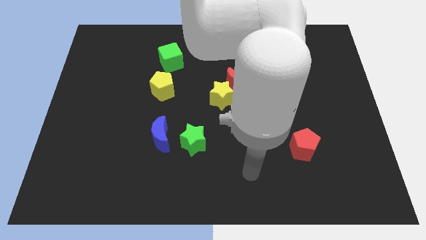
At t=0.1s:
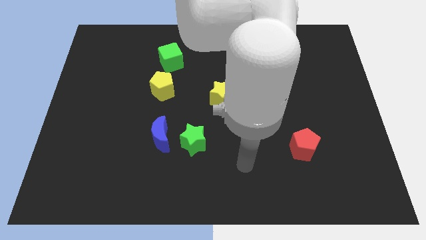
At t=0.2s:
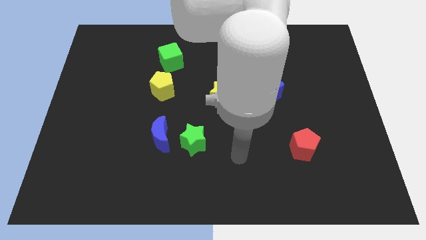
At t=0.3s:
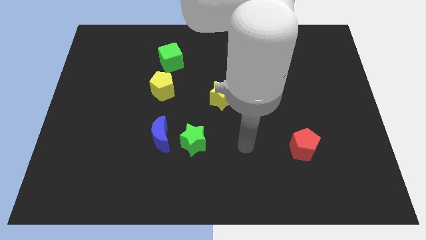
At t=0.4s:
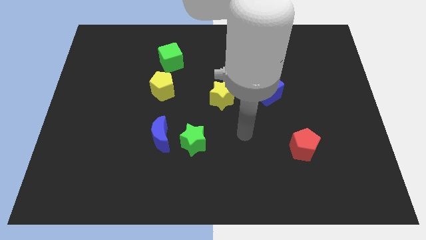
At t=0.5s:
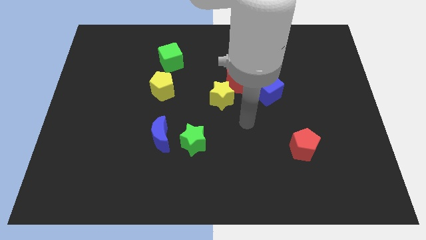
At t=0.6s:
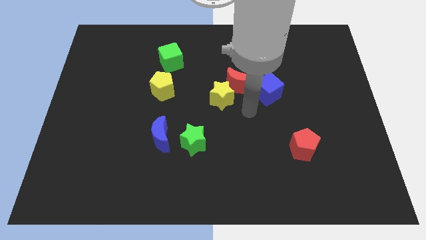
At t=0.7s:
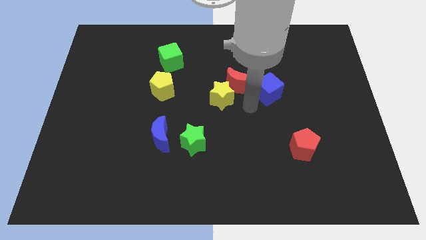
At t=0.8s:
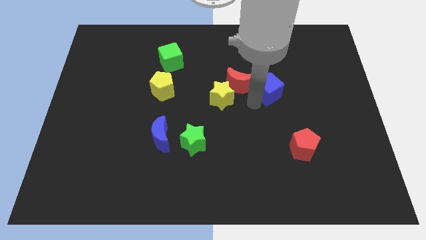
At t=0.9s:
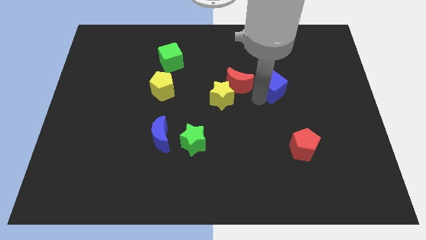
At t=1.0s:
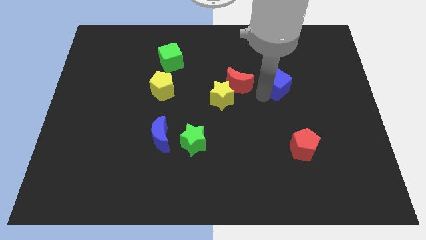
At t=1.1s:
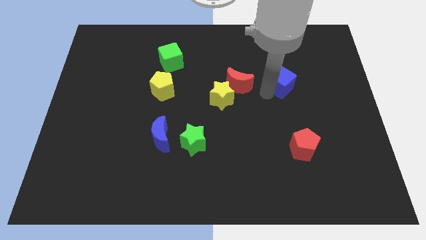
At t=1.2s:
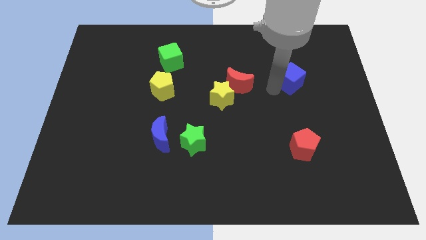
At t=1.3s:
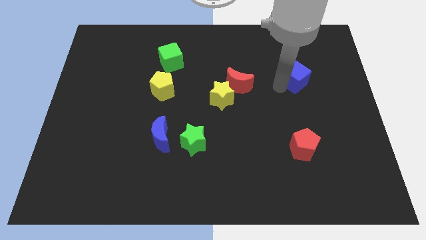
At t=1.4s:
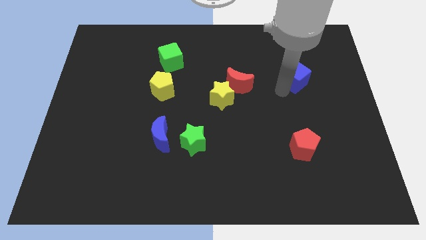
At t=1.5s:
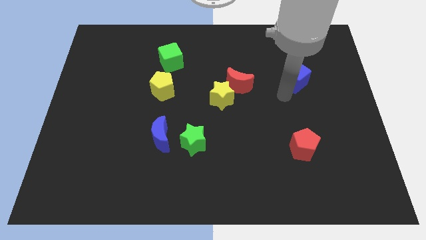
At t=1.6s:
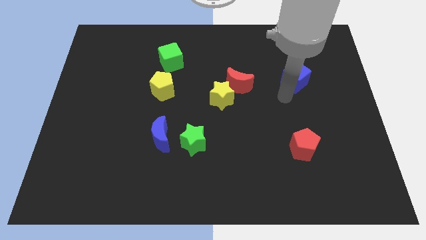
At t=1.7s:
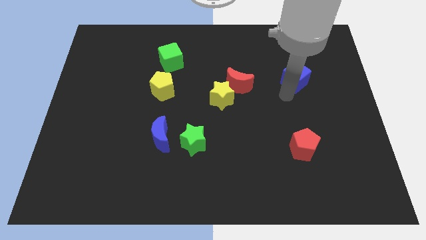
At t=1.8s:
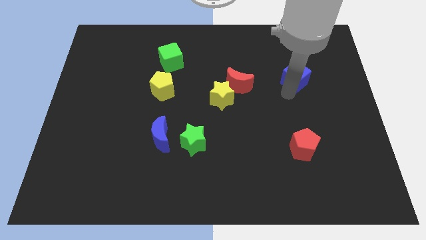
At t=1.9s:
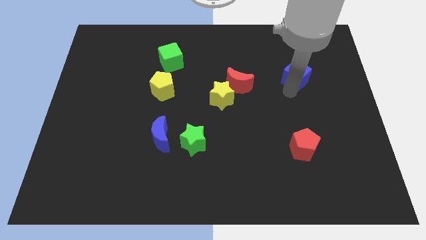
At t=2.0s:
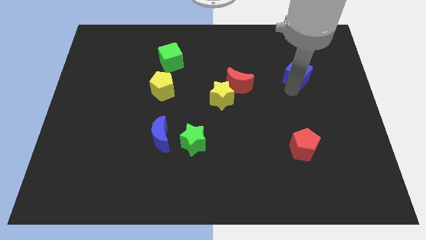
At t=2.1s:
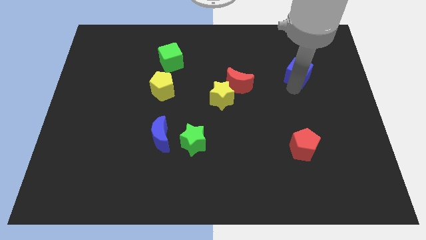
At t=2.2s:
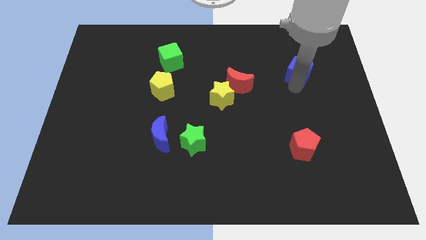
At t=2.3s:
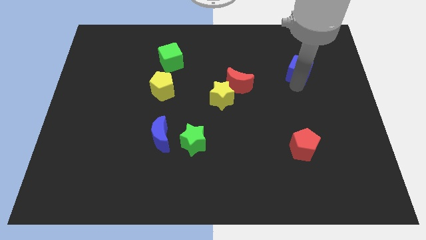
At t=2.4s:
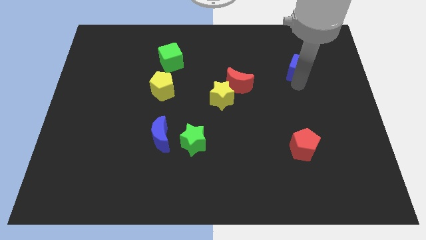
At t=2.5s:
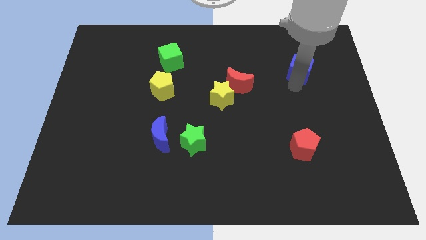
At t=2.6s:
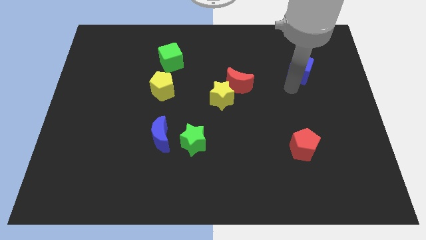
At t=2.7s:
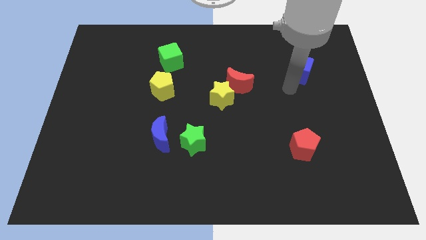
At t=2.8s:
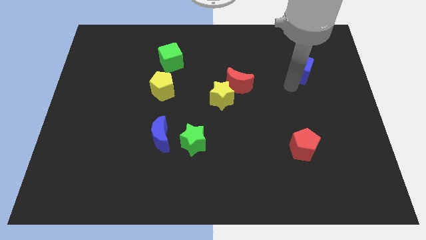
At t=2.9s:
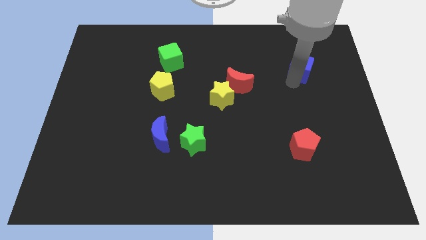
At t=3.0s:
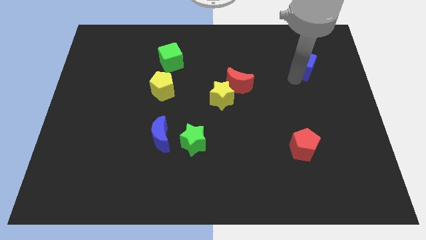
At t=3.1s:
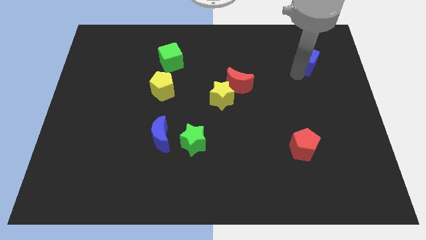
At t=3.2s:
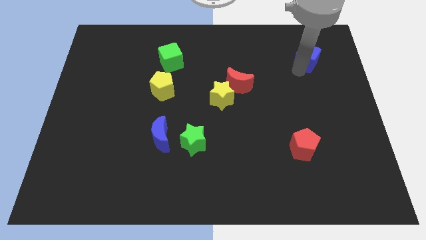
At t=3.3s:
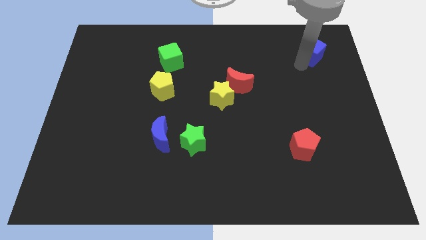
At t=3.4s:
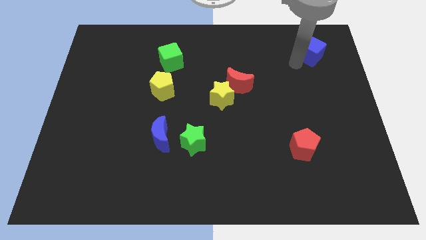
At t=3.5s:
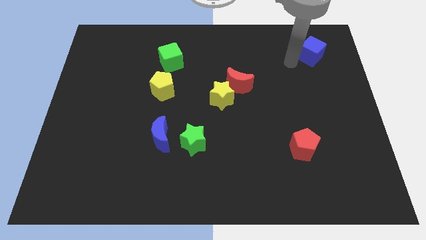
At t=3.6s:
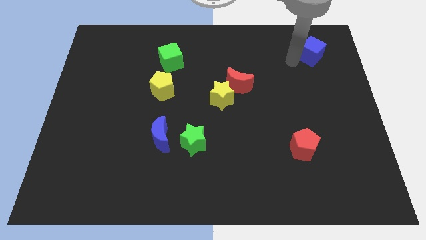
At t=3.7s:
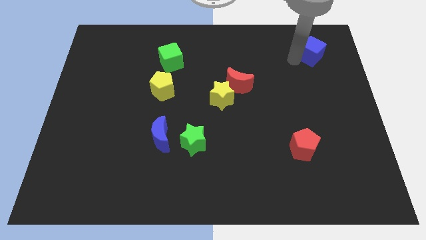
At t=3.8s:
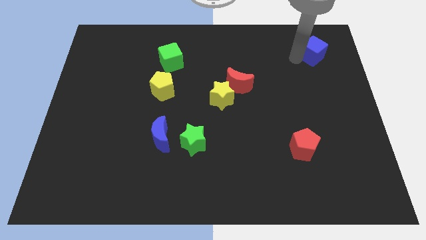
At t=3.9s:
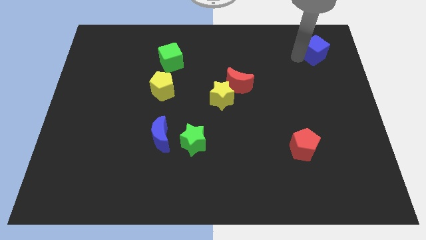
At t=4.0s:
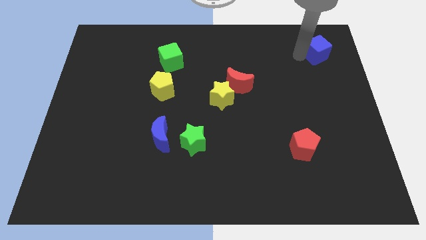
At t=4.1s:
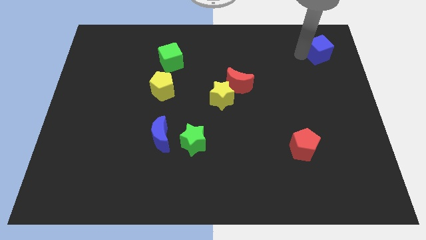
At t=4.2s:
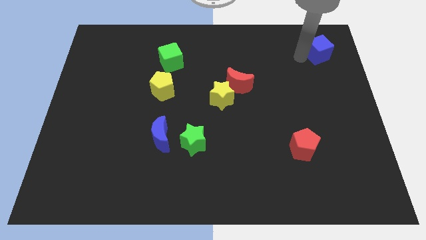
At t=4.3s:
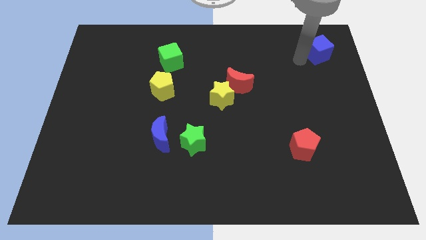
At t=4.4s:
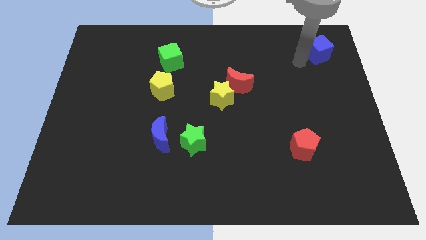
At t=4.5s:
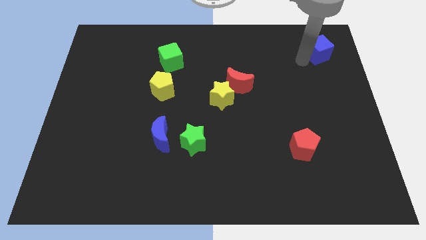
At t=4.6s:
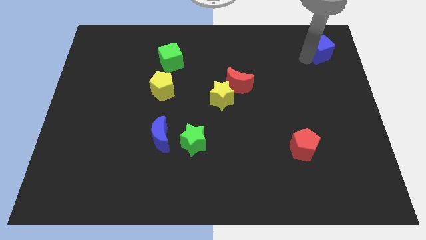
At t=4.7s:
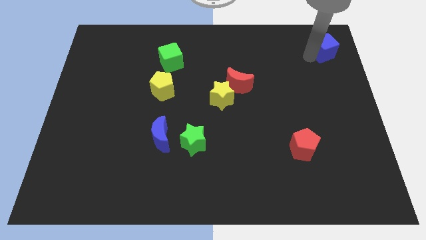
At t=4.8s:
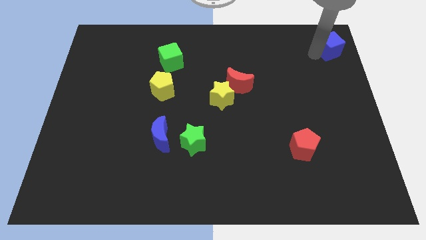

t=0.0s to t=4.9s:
put the blue cube to the top right corner

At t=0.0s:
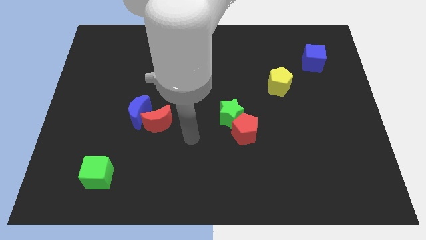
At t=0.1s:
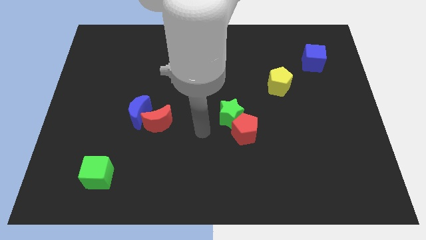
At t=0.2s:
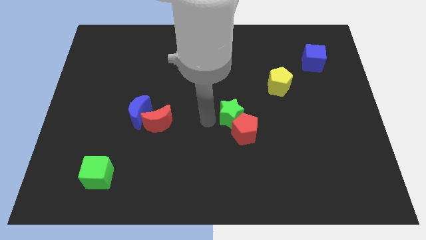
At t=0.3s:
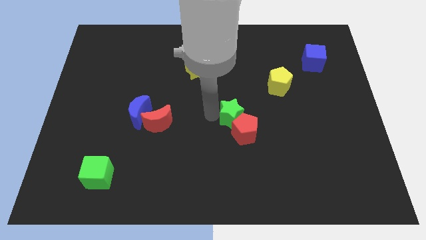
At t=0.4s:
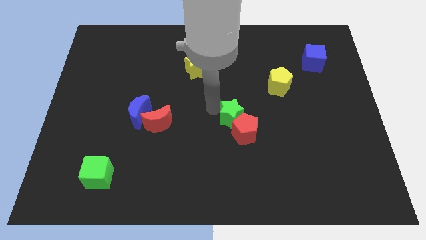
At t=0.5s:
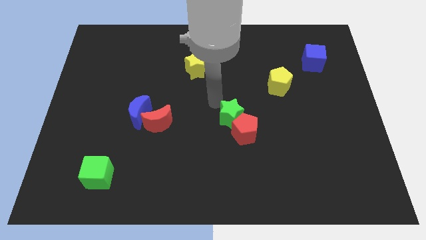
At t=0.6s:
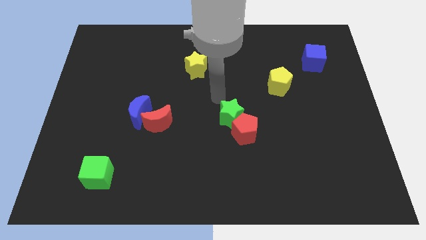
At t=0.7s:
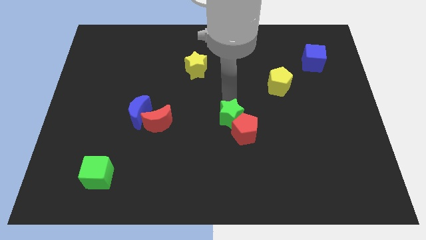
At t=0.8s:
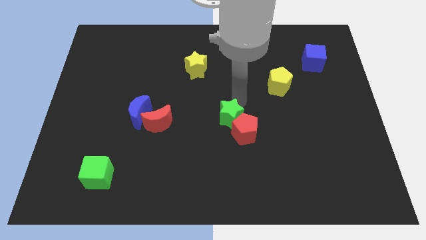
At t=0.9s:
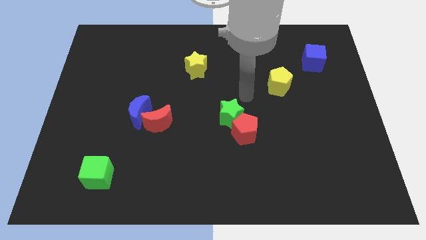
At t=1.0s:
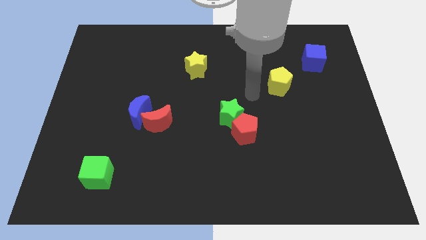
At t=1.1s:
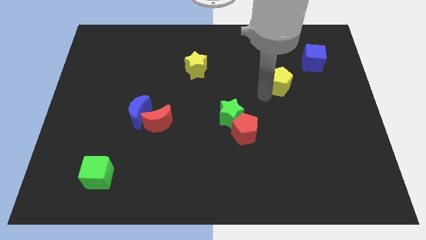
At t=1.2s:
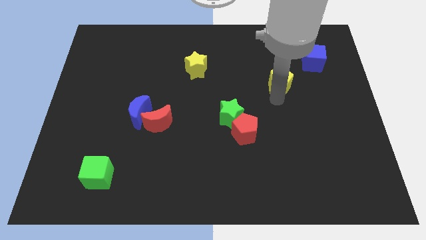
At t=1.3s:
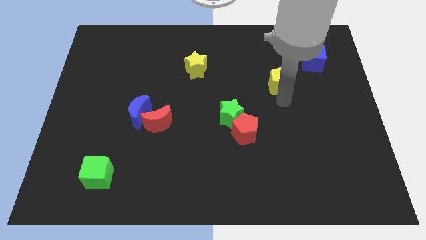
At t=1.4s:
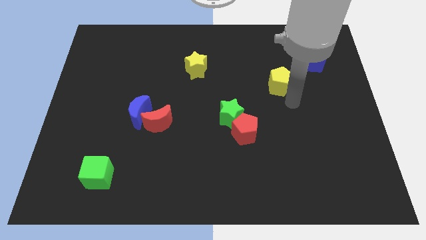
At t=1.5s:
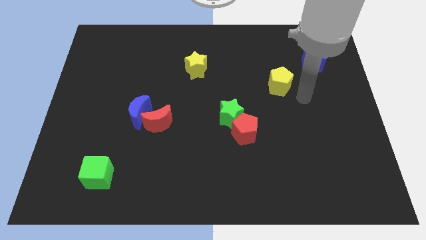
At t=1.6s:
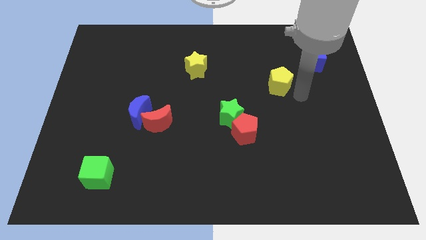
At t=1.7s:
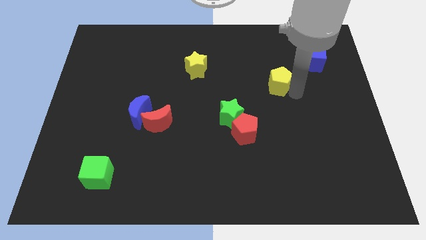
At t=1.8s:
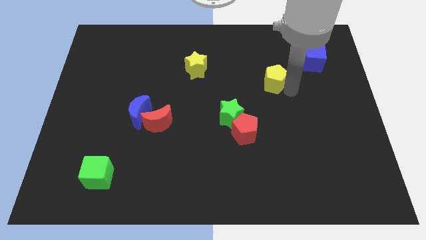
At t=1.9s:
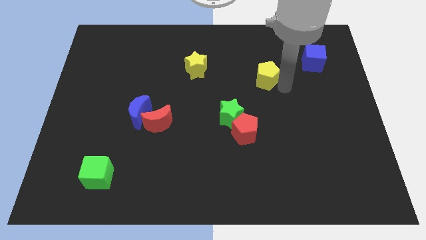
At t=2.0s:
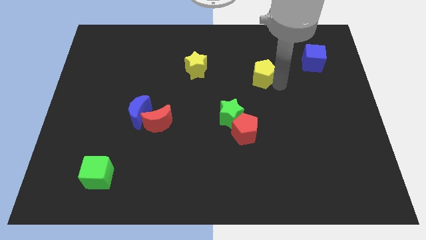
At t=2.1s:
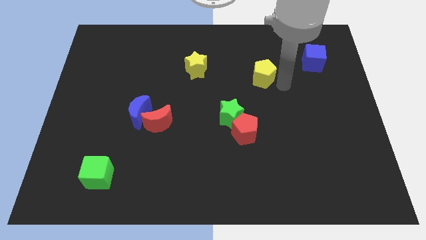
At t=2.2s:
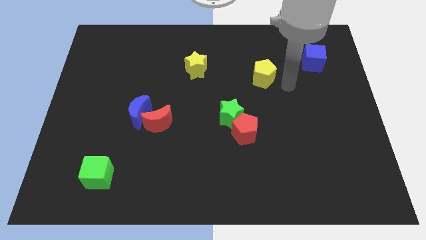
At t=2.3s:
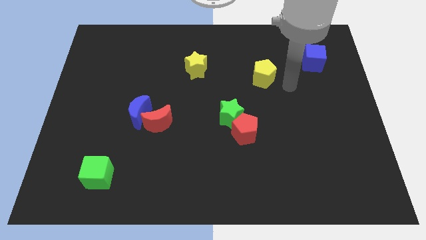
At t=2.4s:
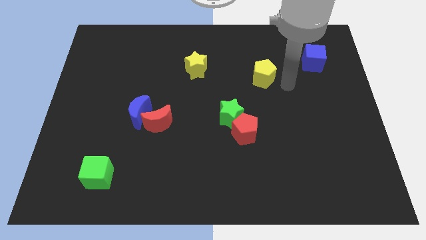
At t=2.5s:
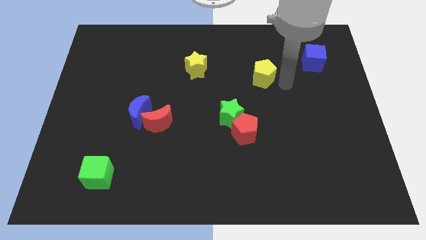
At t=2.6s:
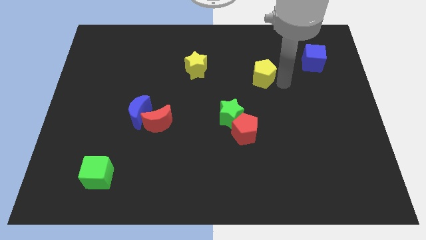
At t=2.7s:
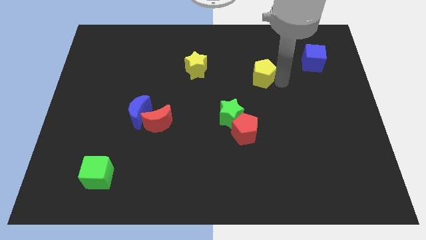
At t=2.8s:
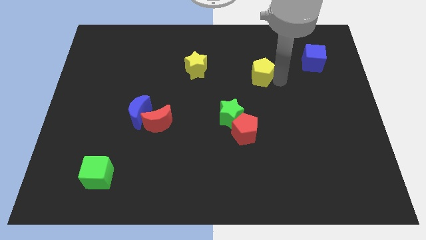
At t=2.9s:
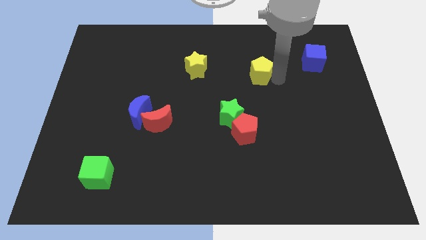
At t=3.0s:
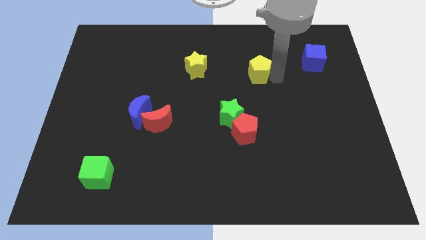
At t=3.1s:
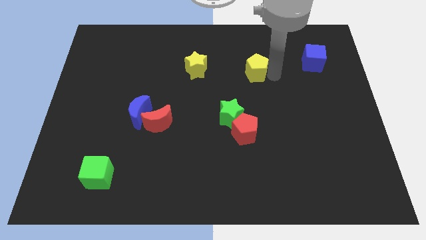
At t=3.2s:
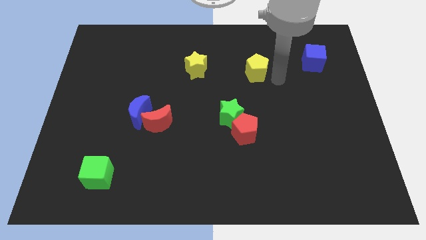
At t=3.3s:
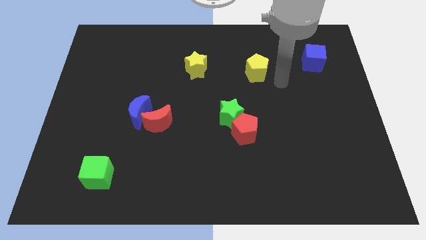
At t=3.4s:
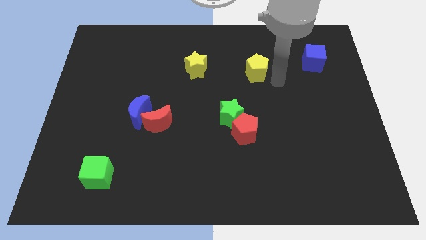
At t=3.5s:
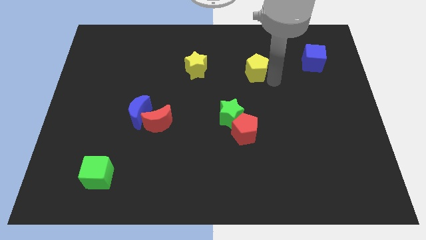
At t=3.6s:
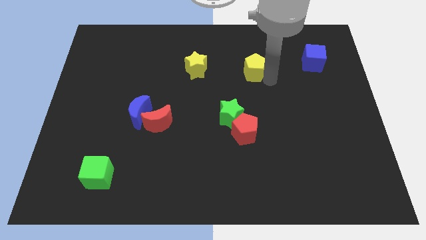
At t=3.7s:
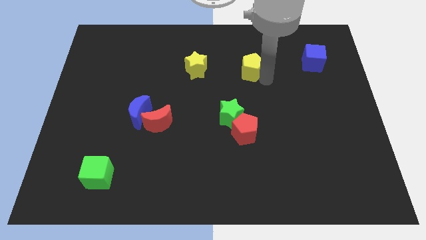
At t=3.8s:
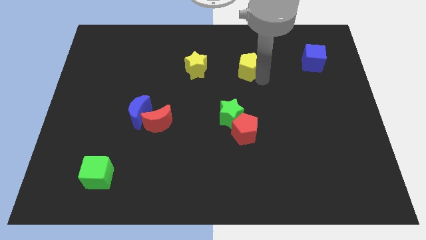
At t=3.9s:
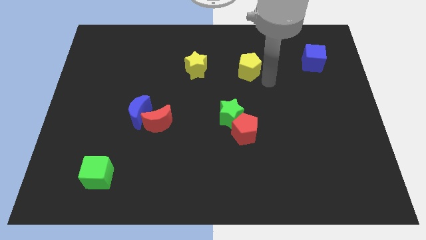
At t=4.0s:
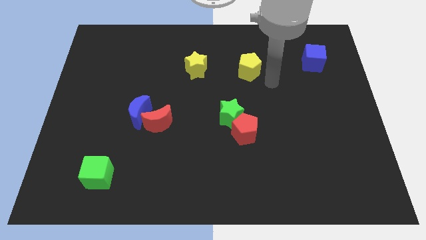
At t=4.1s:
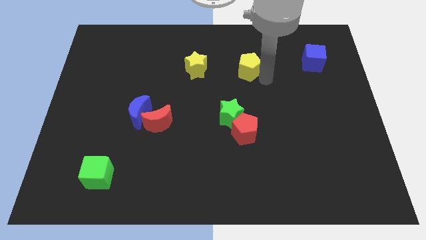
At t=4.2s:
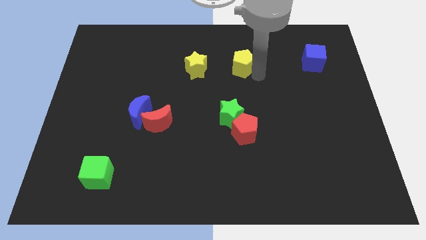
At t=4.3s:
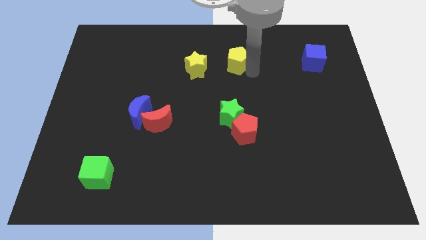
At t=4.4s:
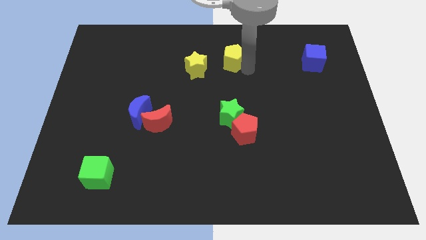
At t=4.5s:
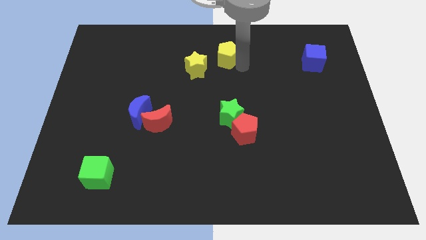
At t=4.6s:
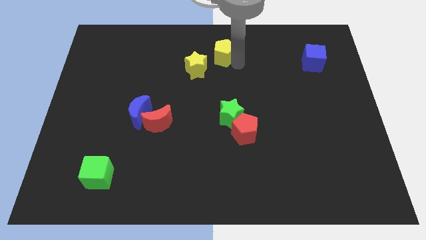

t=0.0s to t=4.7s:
put the yellow pentagon to the towards your base
